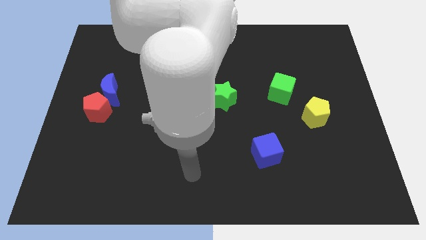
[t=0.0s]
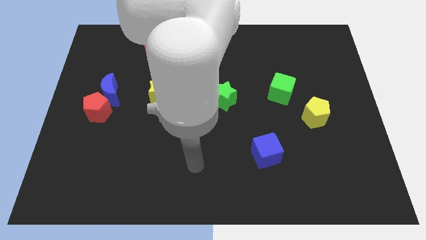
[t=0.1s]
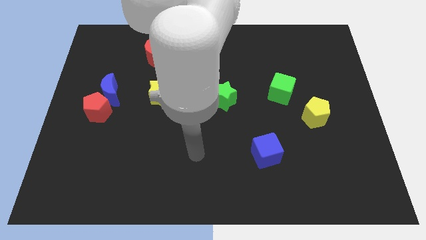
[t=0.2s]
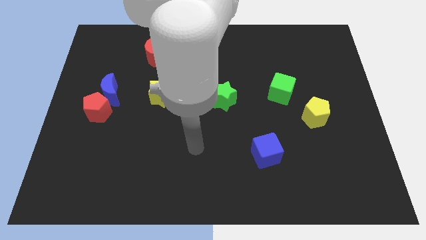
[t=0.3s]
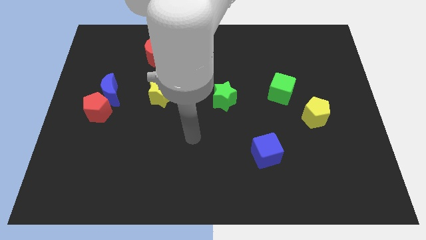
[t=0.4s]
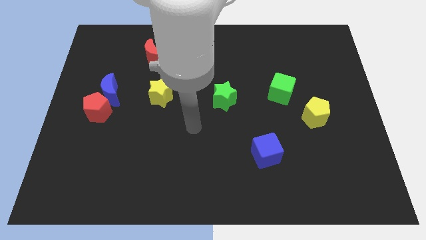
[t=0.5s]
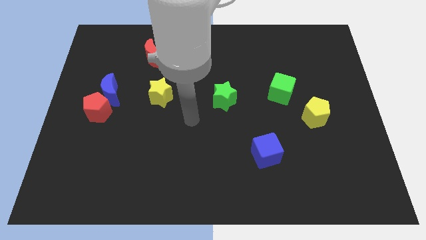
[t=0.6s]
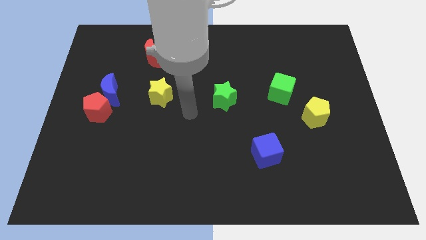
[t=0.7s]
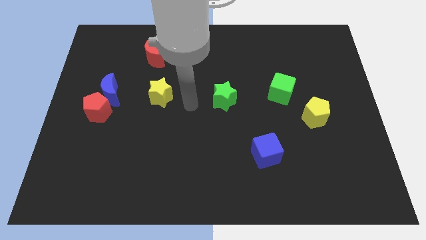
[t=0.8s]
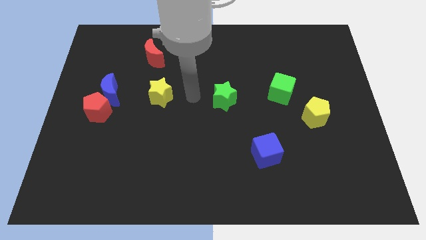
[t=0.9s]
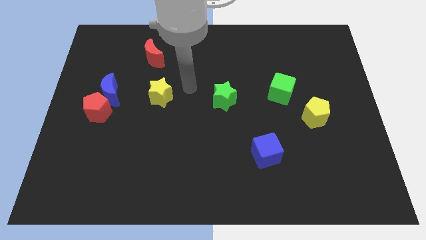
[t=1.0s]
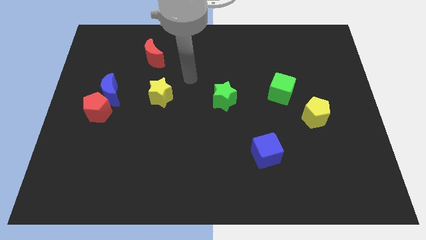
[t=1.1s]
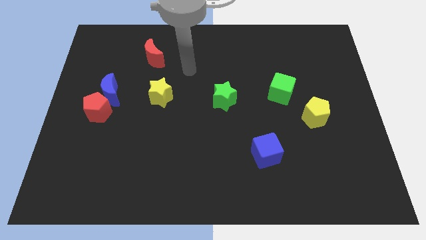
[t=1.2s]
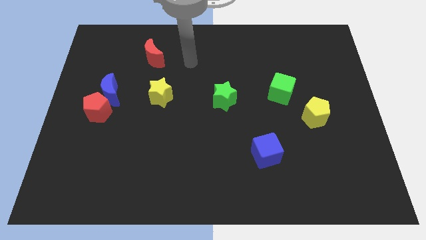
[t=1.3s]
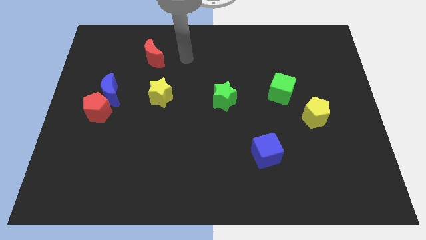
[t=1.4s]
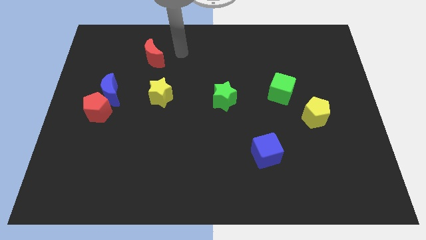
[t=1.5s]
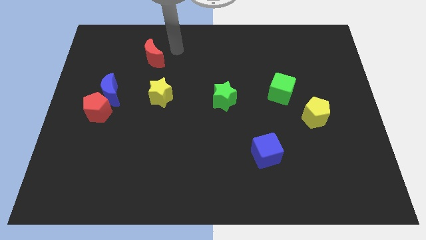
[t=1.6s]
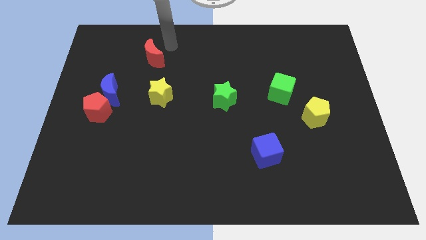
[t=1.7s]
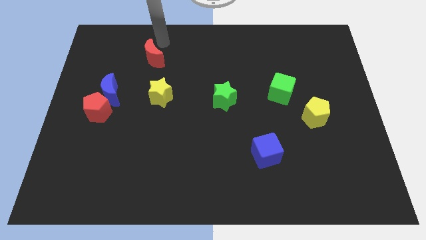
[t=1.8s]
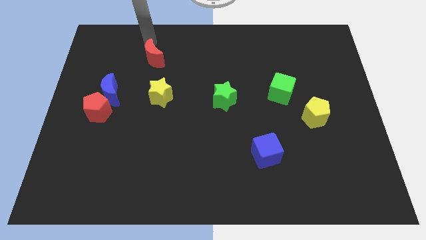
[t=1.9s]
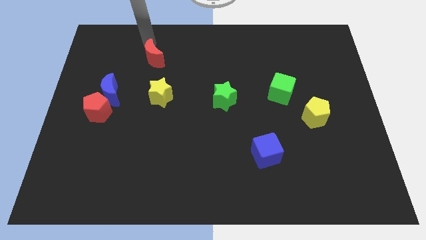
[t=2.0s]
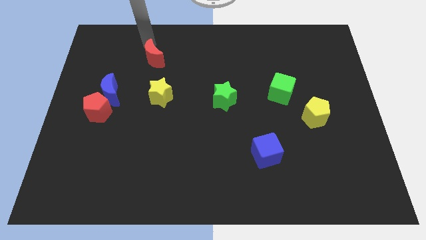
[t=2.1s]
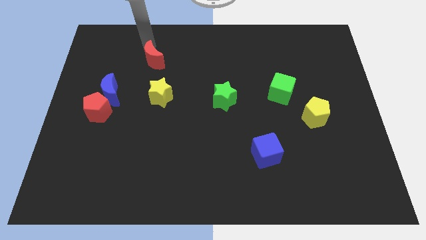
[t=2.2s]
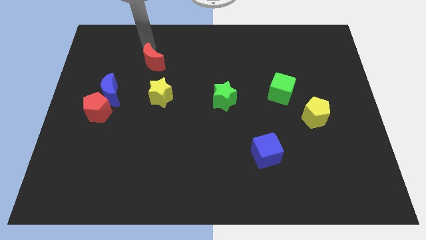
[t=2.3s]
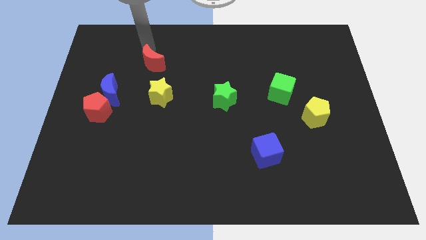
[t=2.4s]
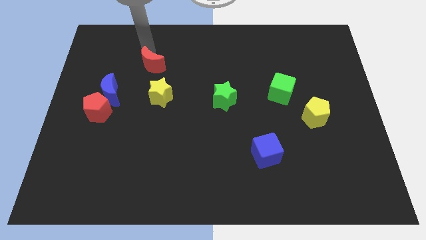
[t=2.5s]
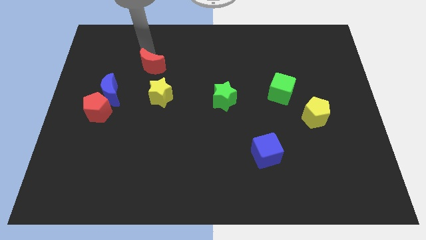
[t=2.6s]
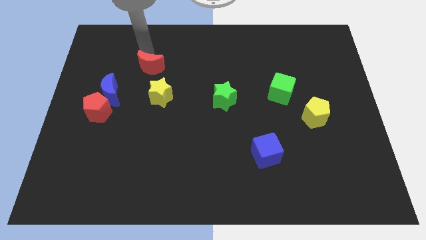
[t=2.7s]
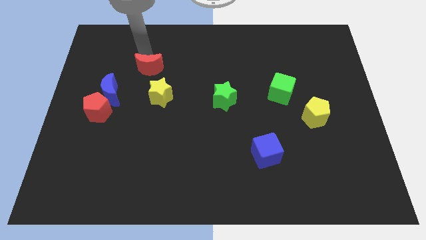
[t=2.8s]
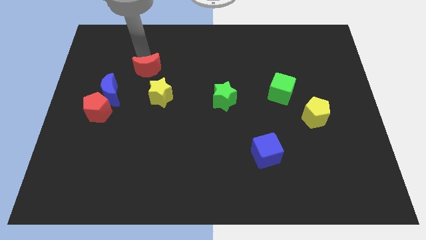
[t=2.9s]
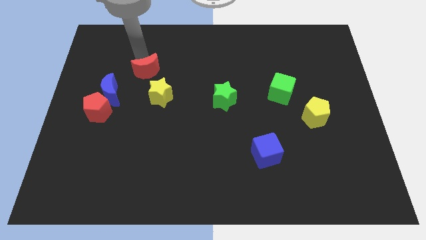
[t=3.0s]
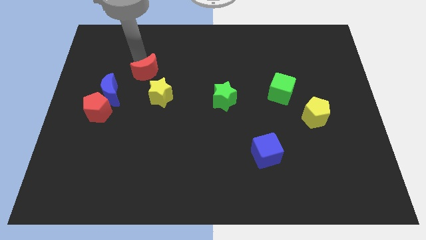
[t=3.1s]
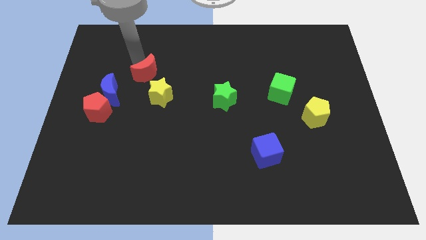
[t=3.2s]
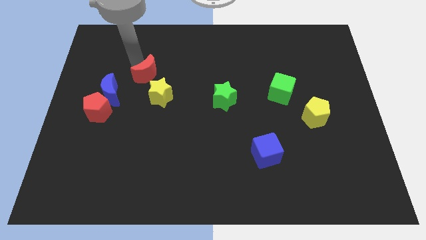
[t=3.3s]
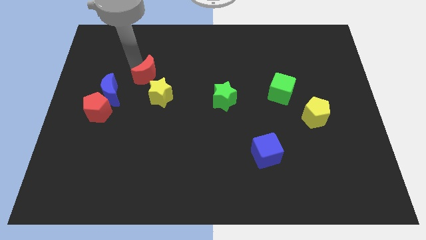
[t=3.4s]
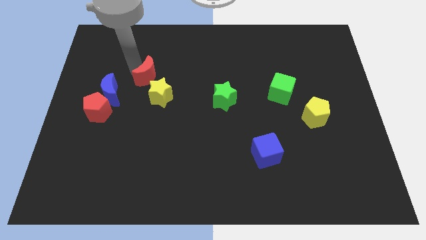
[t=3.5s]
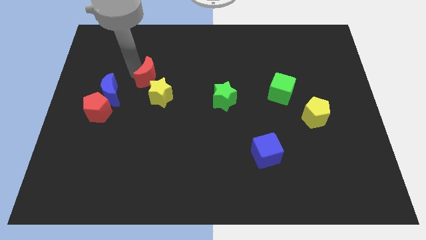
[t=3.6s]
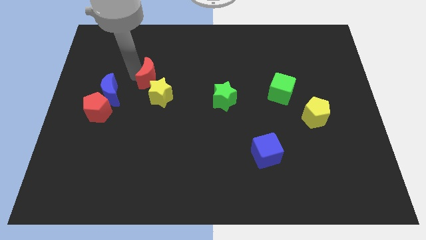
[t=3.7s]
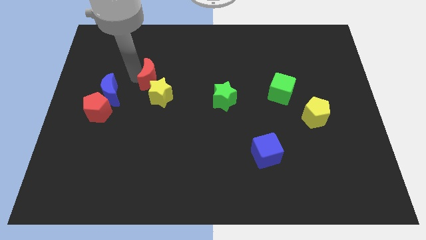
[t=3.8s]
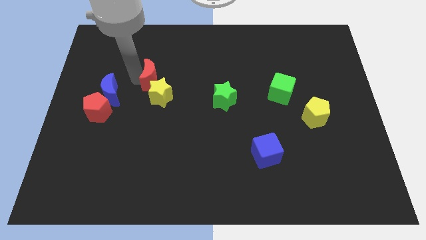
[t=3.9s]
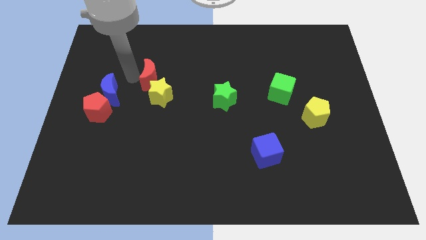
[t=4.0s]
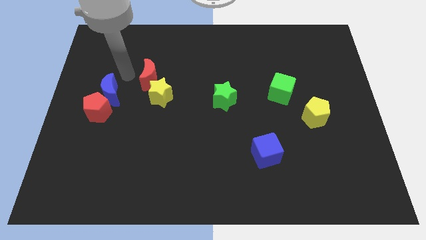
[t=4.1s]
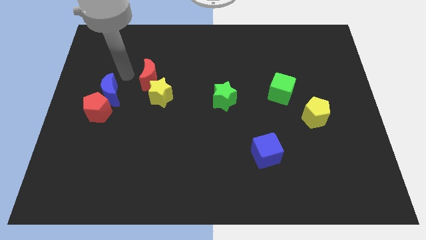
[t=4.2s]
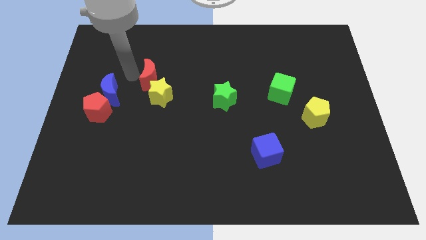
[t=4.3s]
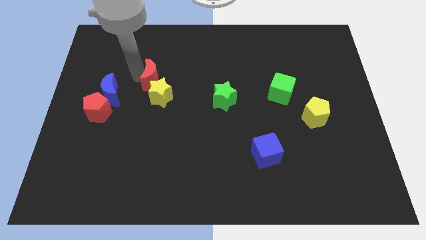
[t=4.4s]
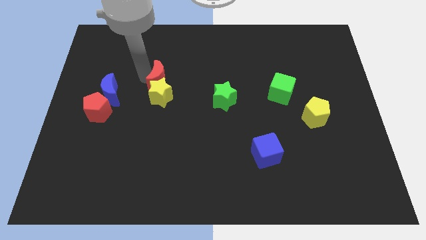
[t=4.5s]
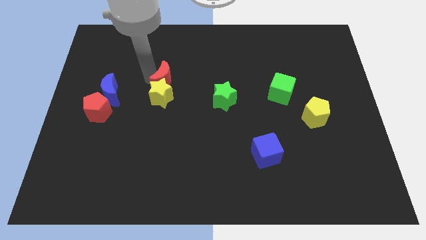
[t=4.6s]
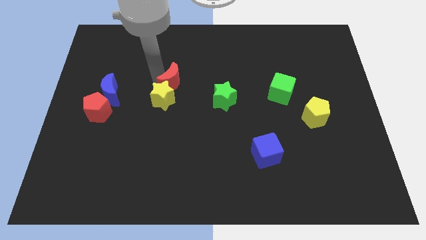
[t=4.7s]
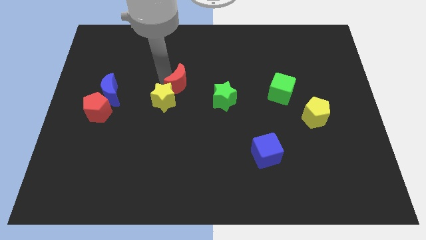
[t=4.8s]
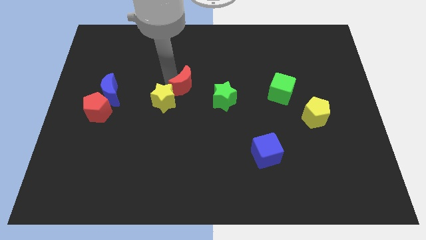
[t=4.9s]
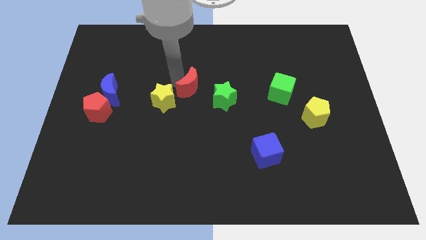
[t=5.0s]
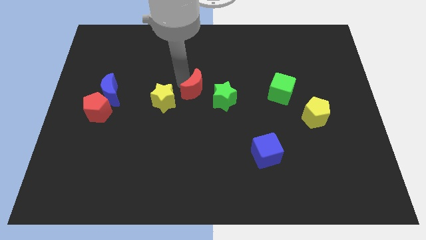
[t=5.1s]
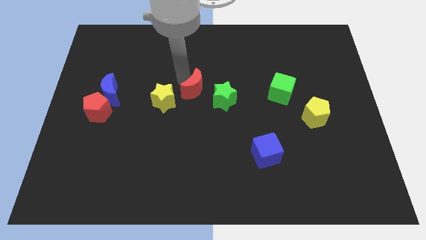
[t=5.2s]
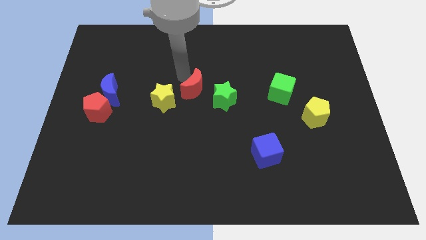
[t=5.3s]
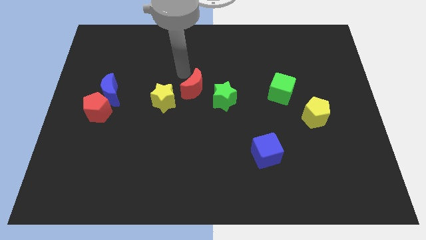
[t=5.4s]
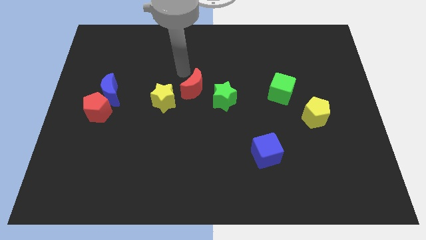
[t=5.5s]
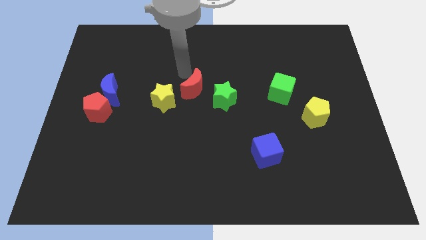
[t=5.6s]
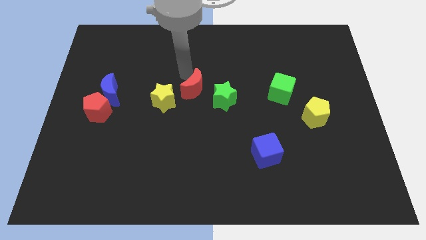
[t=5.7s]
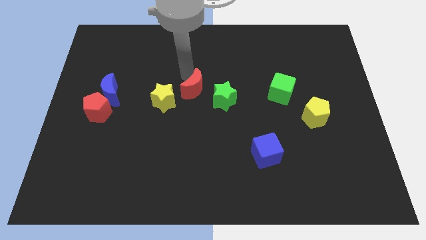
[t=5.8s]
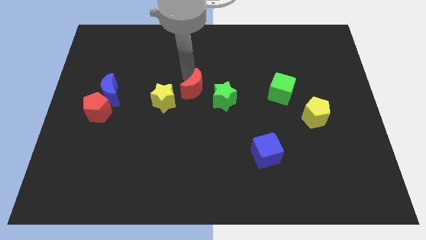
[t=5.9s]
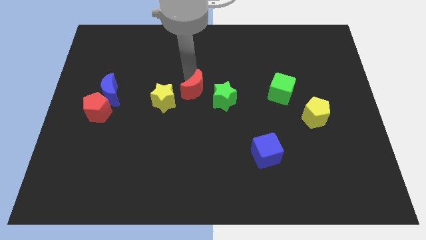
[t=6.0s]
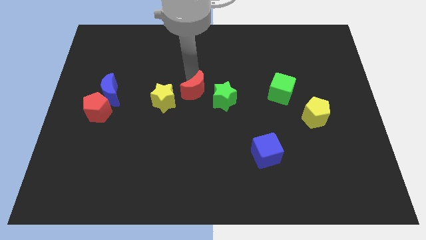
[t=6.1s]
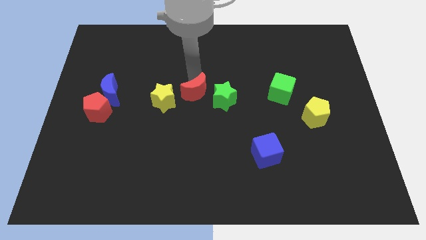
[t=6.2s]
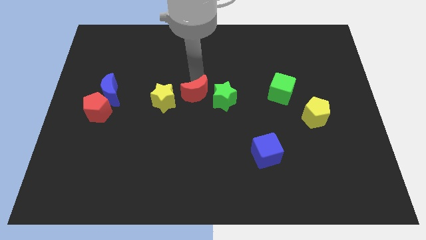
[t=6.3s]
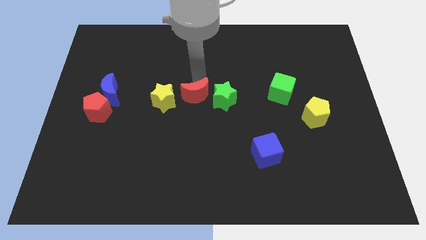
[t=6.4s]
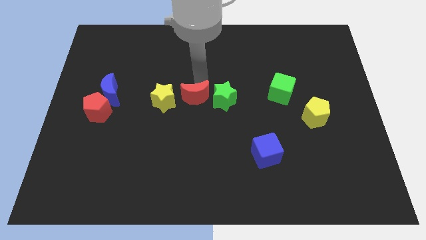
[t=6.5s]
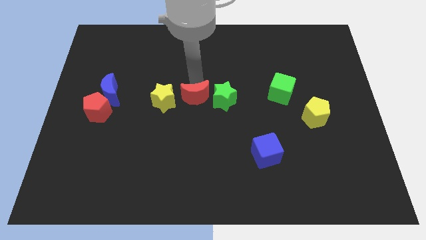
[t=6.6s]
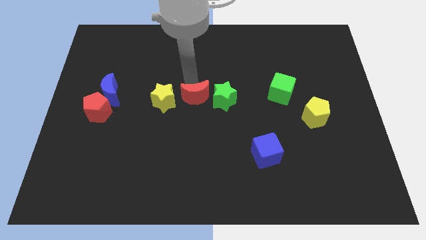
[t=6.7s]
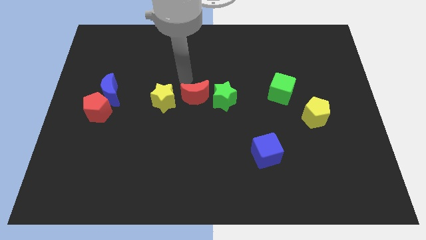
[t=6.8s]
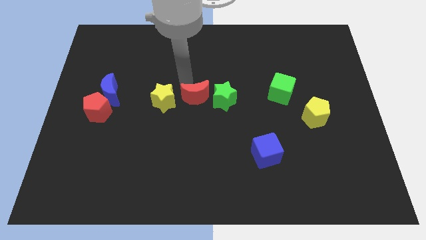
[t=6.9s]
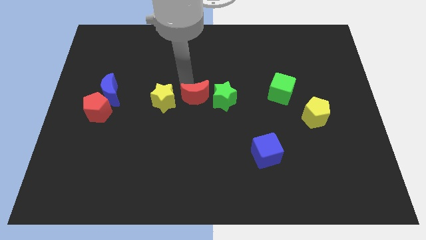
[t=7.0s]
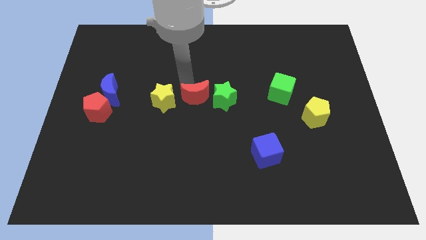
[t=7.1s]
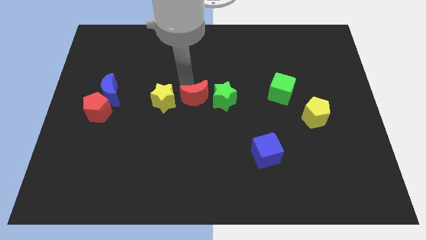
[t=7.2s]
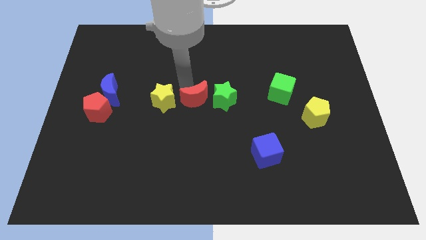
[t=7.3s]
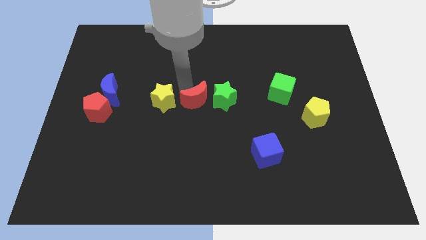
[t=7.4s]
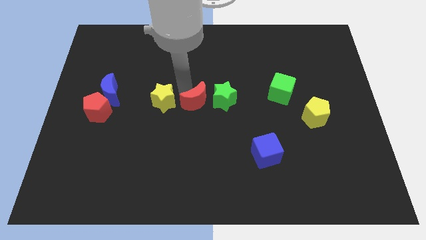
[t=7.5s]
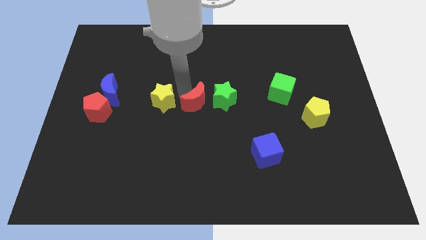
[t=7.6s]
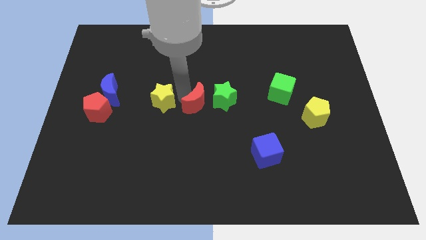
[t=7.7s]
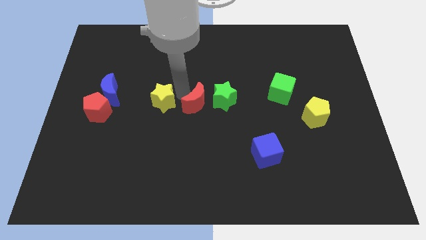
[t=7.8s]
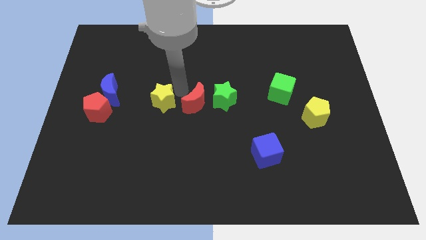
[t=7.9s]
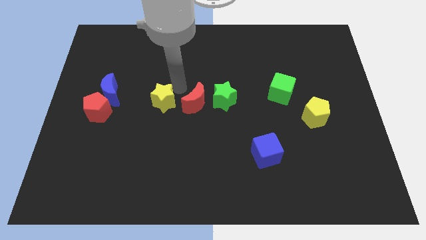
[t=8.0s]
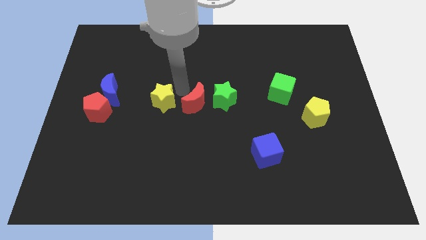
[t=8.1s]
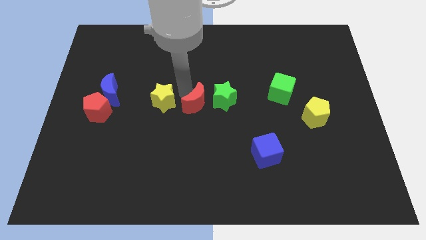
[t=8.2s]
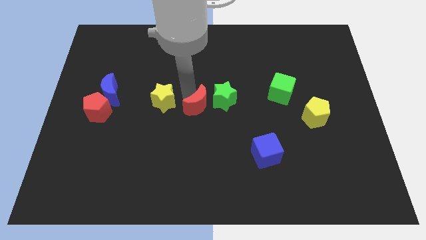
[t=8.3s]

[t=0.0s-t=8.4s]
slide the red moon downwards and to the right diagonally
